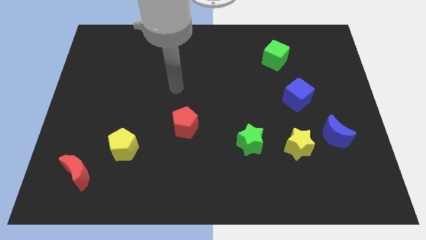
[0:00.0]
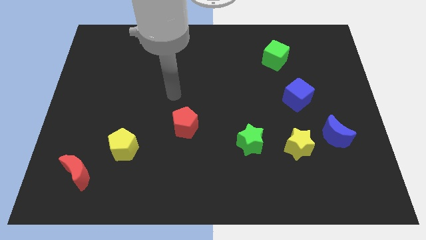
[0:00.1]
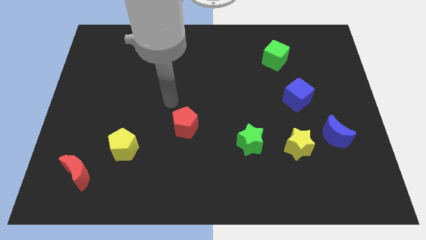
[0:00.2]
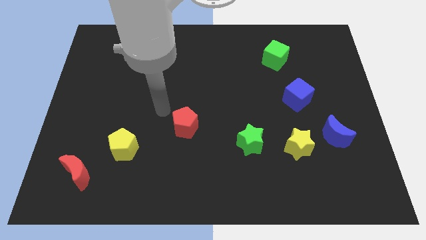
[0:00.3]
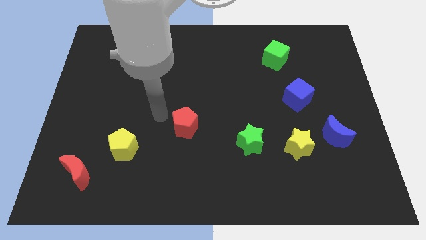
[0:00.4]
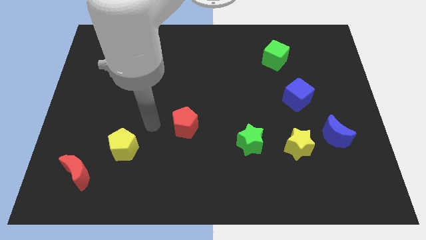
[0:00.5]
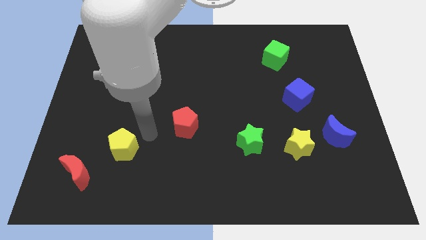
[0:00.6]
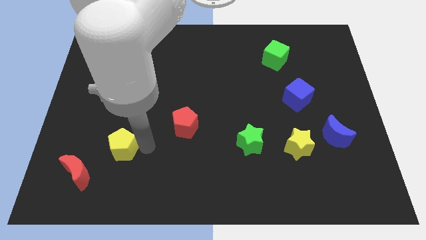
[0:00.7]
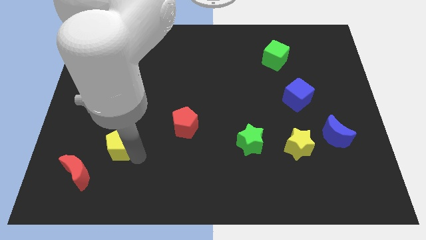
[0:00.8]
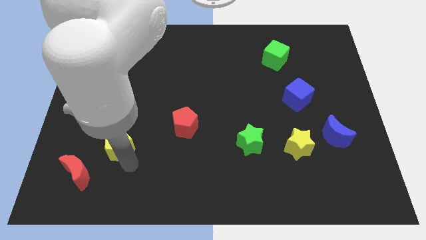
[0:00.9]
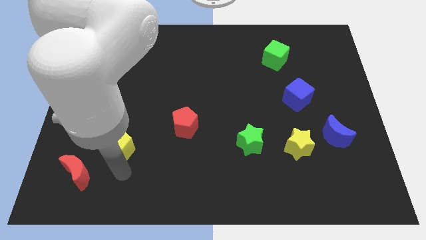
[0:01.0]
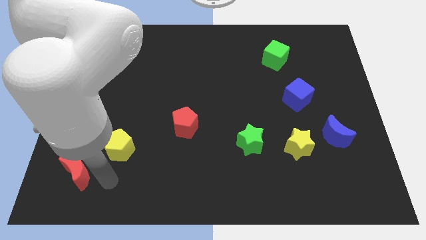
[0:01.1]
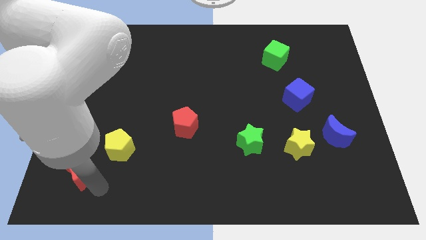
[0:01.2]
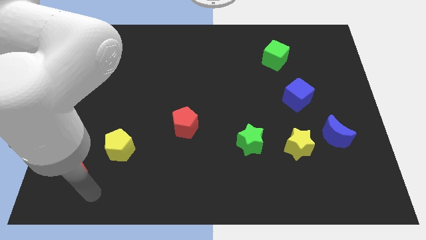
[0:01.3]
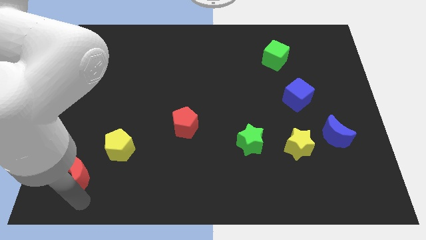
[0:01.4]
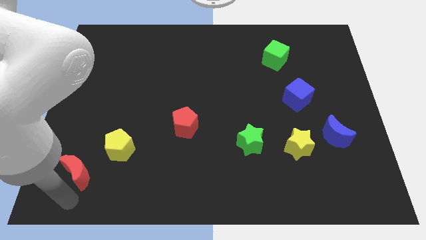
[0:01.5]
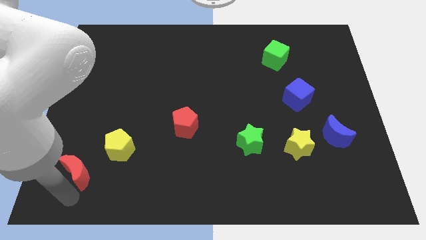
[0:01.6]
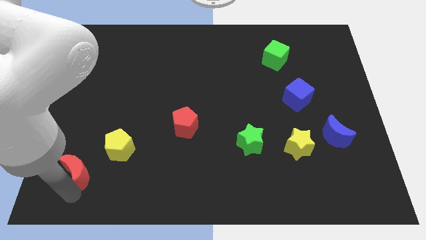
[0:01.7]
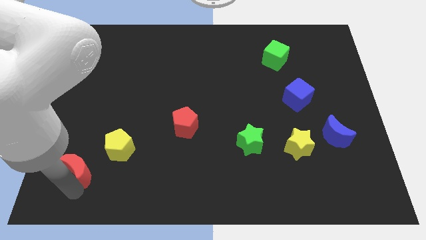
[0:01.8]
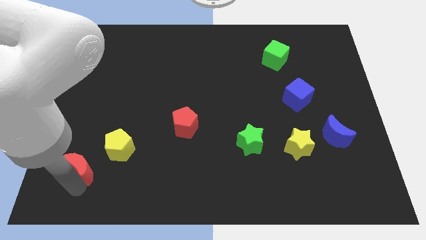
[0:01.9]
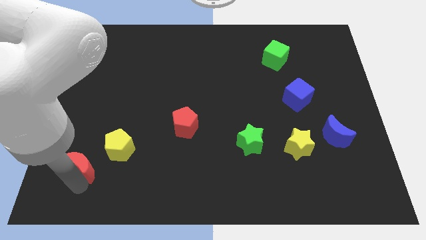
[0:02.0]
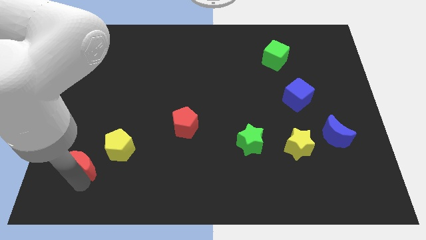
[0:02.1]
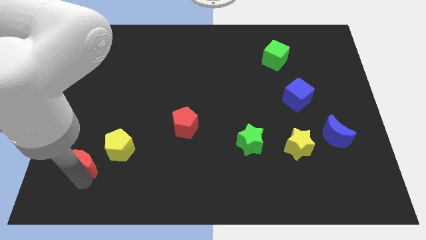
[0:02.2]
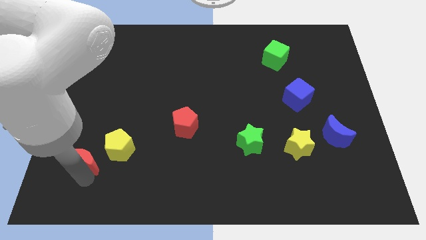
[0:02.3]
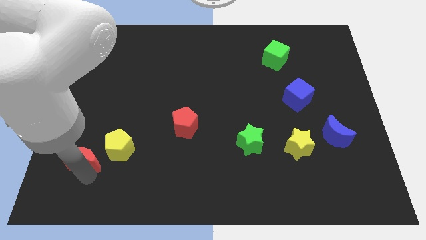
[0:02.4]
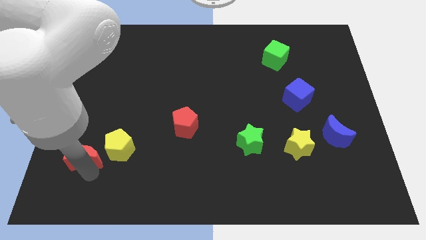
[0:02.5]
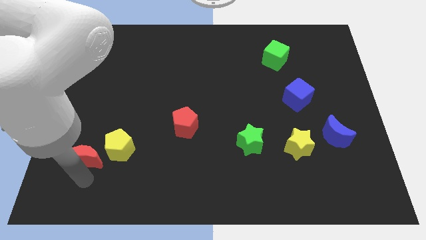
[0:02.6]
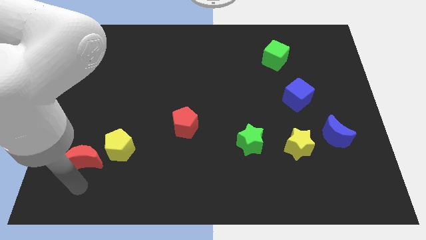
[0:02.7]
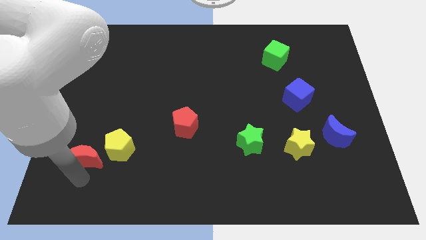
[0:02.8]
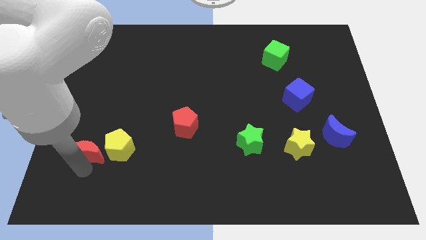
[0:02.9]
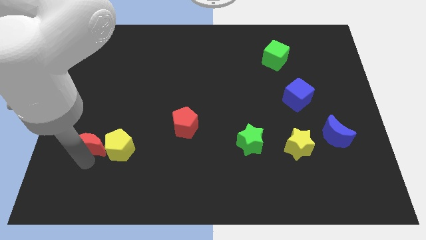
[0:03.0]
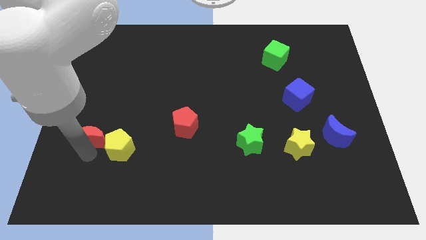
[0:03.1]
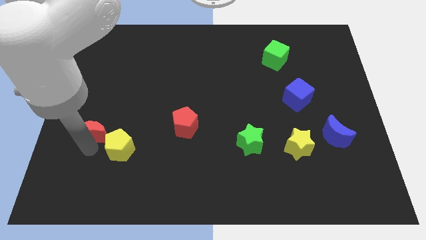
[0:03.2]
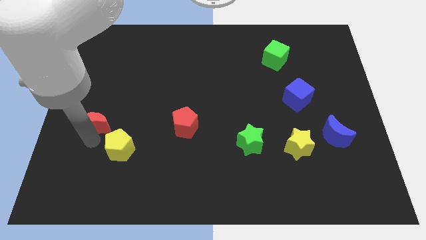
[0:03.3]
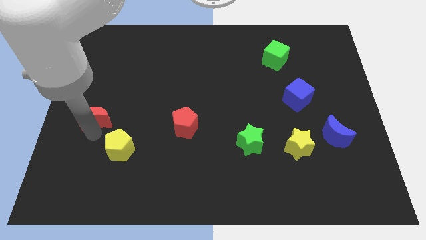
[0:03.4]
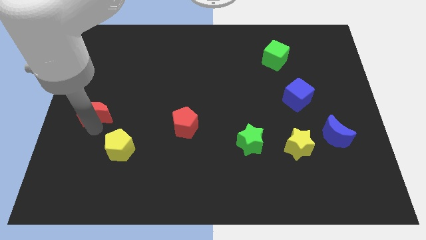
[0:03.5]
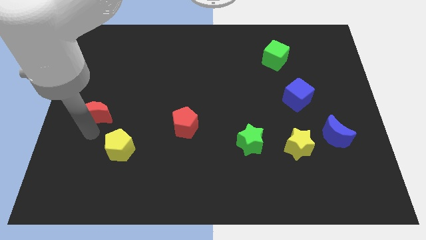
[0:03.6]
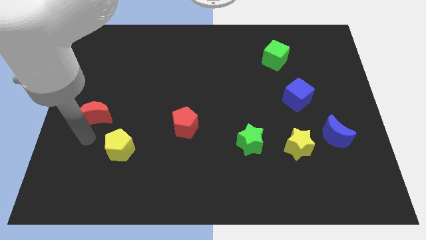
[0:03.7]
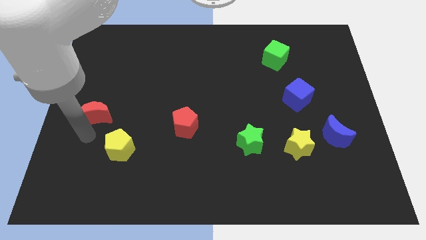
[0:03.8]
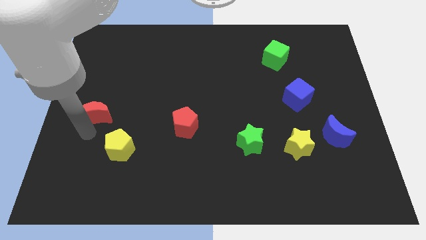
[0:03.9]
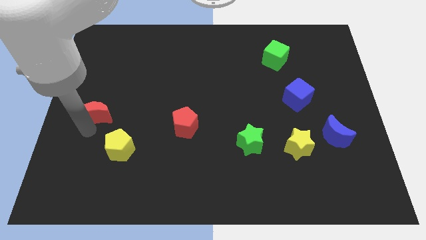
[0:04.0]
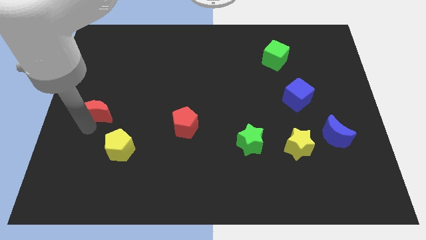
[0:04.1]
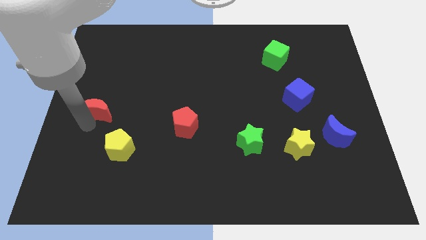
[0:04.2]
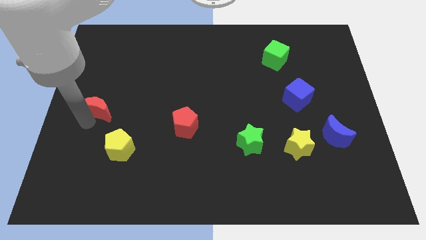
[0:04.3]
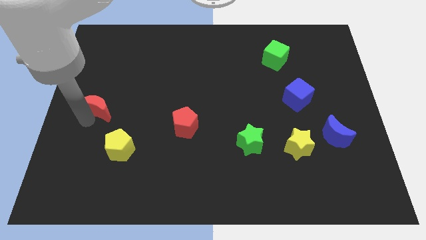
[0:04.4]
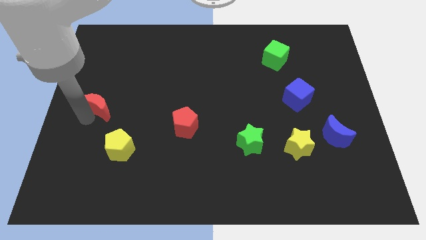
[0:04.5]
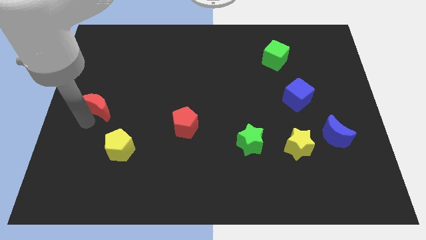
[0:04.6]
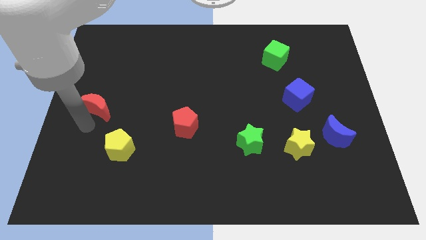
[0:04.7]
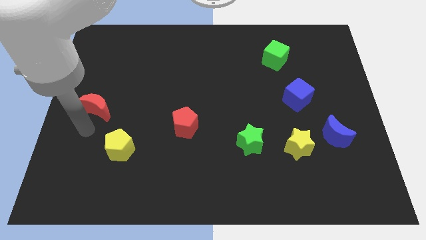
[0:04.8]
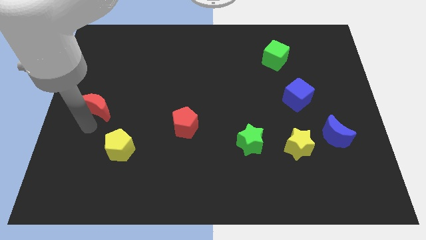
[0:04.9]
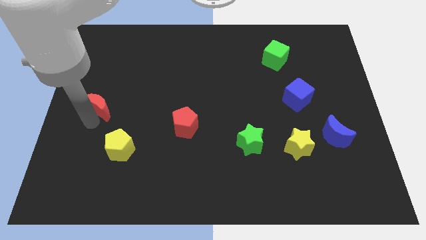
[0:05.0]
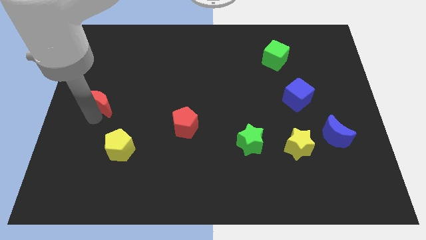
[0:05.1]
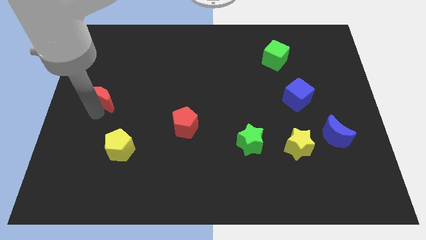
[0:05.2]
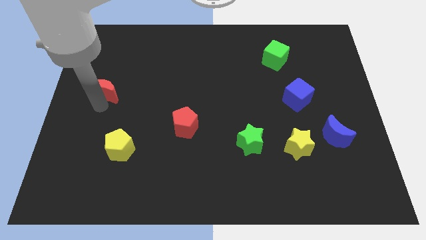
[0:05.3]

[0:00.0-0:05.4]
move the red moon upwards

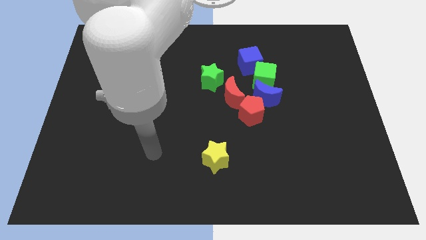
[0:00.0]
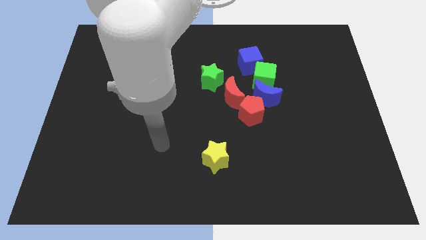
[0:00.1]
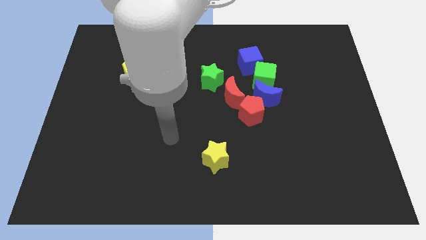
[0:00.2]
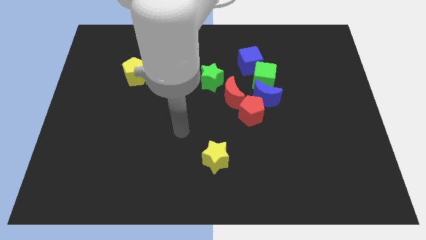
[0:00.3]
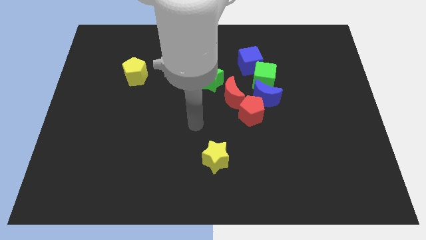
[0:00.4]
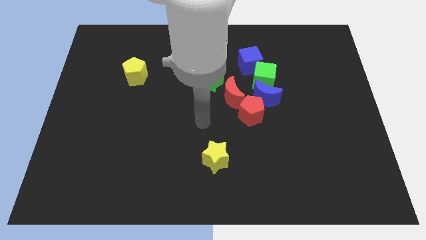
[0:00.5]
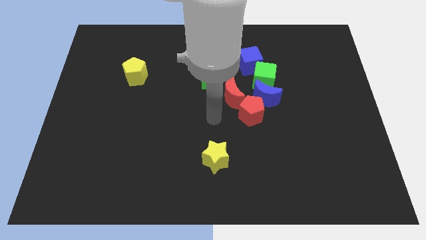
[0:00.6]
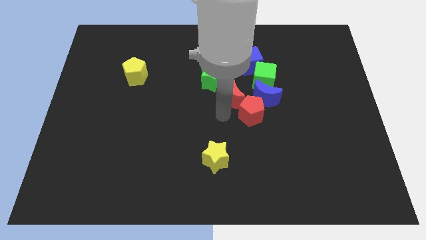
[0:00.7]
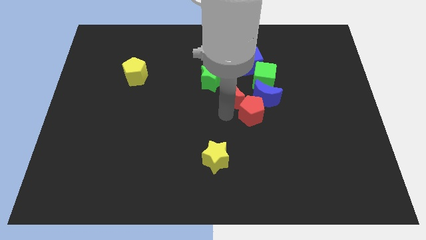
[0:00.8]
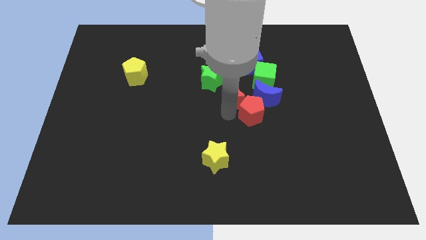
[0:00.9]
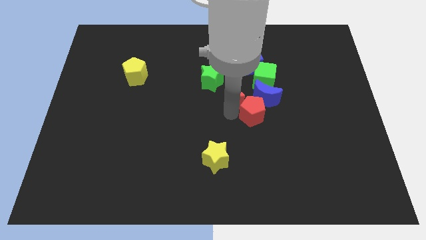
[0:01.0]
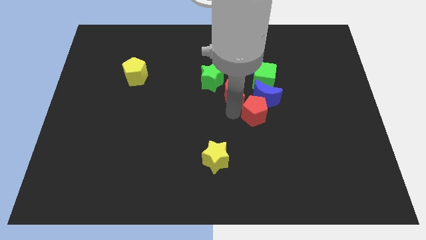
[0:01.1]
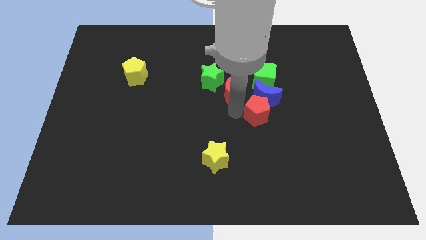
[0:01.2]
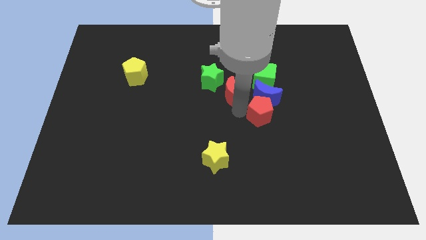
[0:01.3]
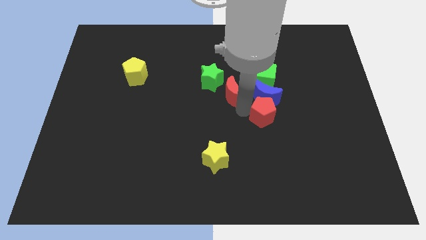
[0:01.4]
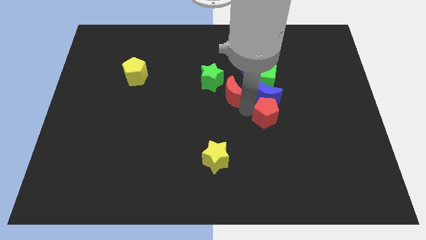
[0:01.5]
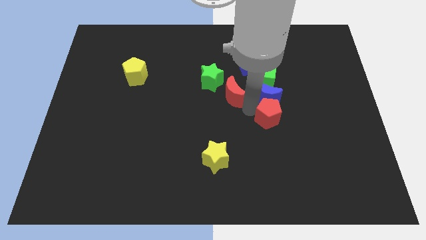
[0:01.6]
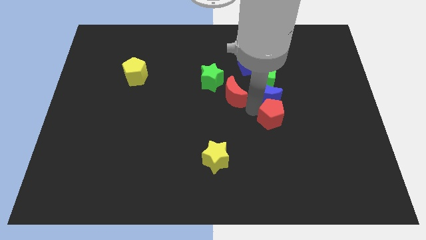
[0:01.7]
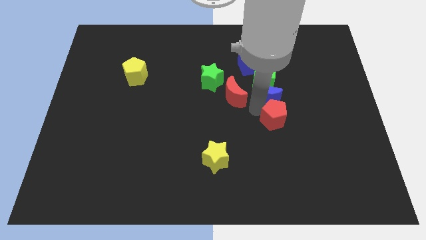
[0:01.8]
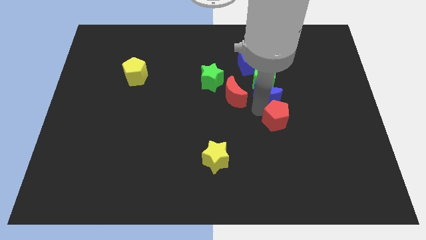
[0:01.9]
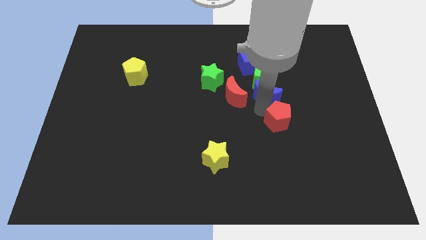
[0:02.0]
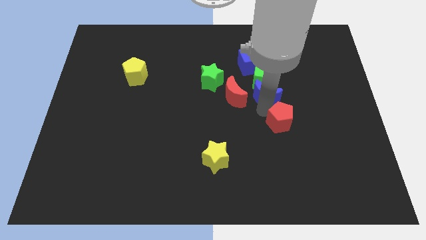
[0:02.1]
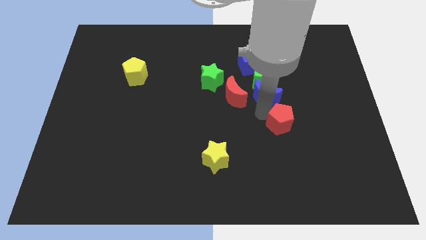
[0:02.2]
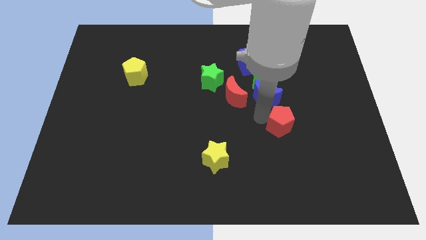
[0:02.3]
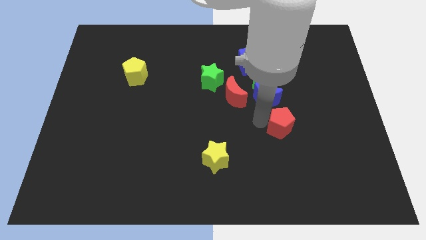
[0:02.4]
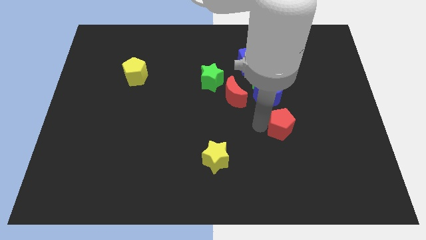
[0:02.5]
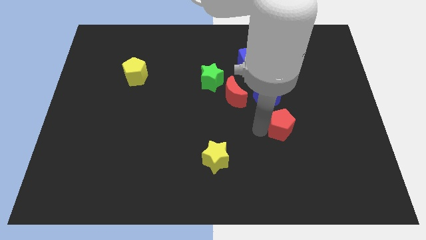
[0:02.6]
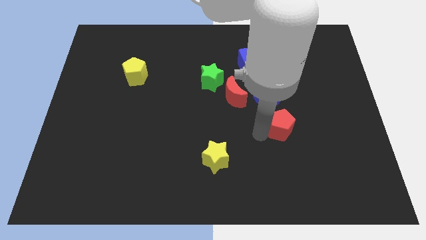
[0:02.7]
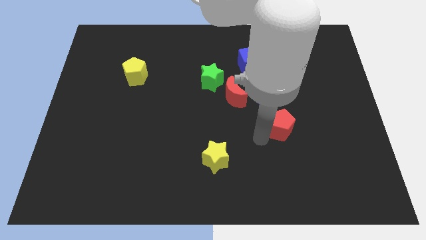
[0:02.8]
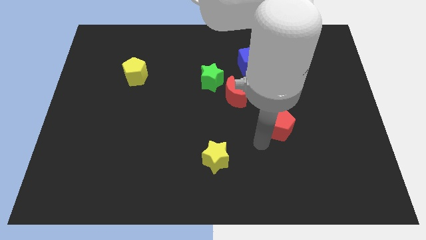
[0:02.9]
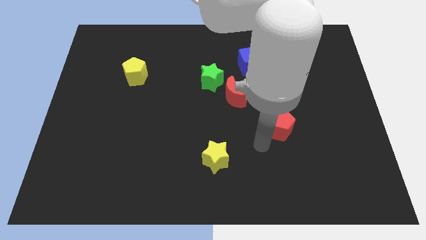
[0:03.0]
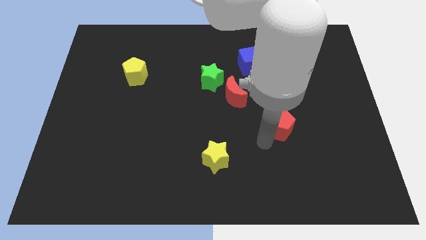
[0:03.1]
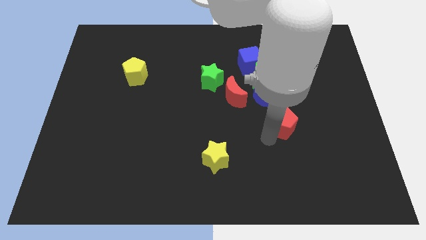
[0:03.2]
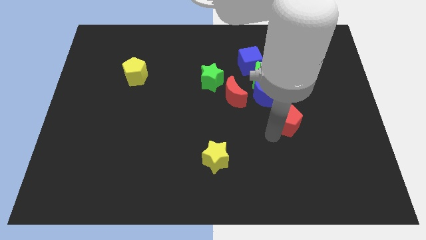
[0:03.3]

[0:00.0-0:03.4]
push the red pentagon a bit to the right
